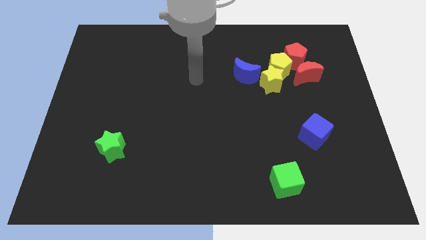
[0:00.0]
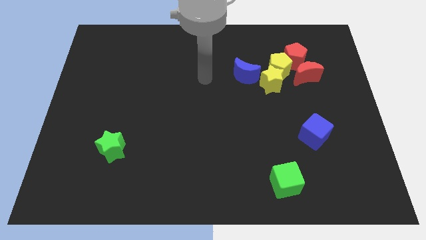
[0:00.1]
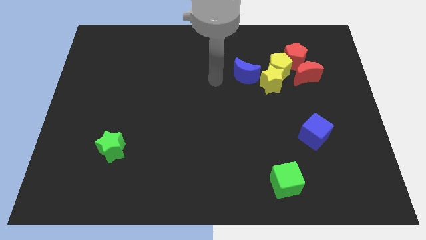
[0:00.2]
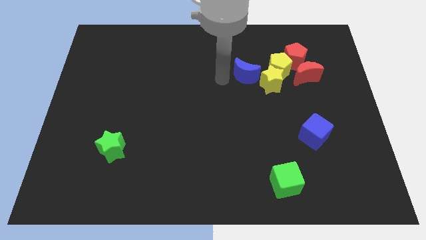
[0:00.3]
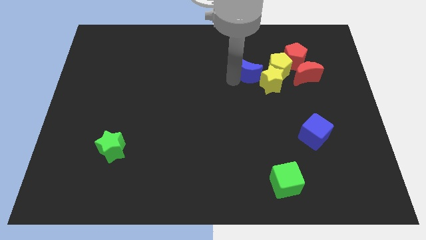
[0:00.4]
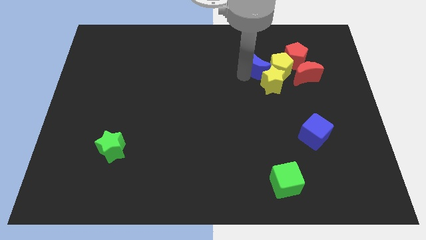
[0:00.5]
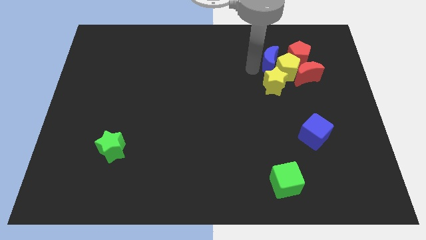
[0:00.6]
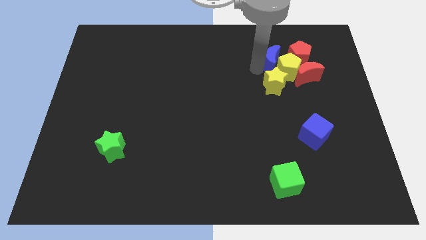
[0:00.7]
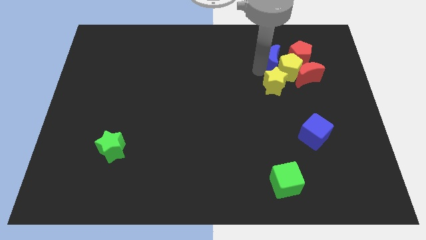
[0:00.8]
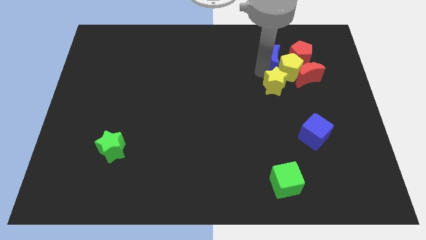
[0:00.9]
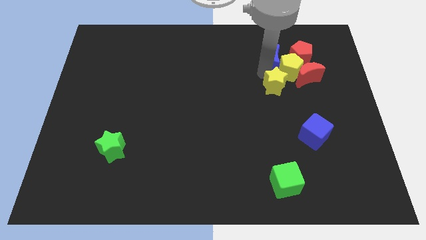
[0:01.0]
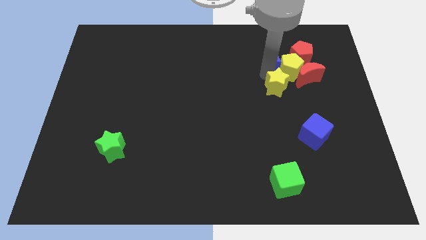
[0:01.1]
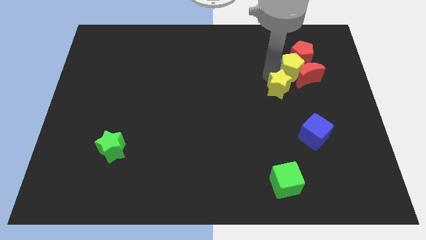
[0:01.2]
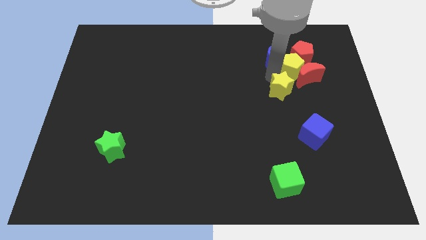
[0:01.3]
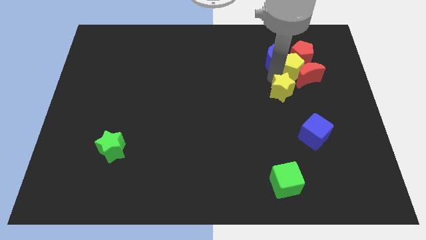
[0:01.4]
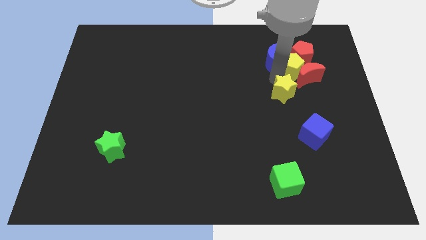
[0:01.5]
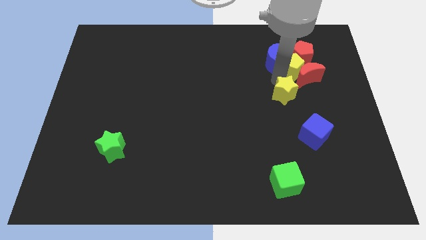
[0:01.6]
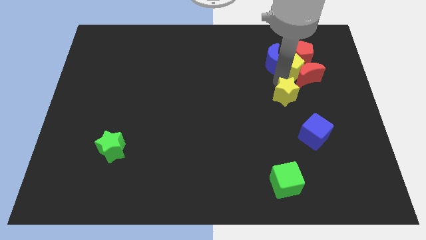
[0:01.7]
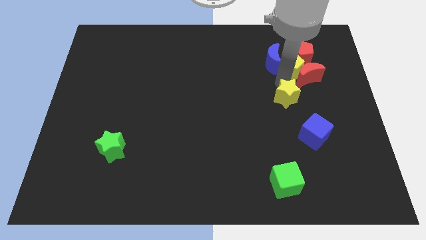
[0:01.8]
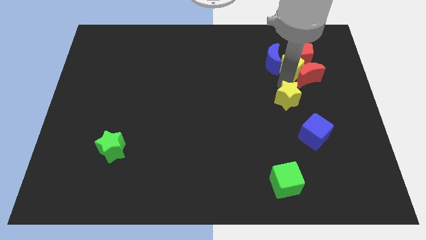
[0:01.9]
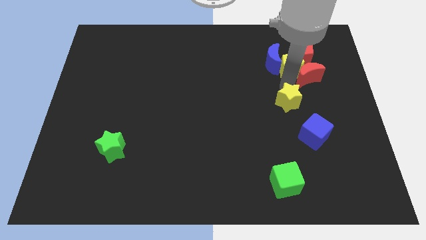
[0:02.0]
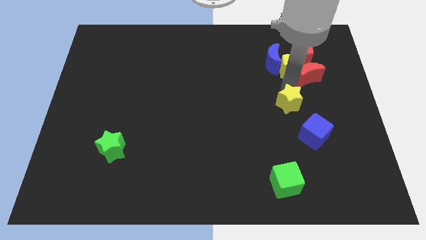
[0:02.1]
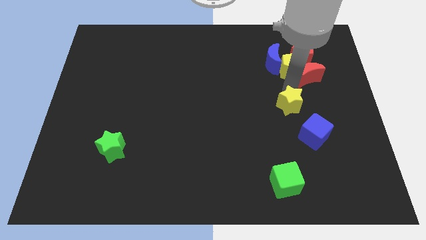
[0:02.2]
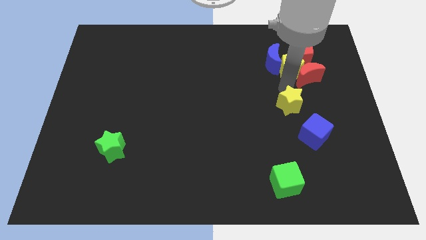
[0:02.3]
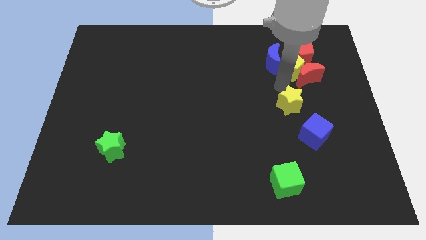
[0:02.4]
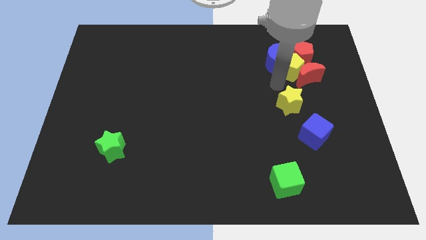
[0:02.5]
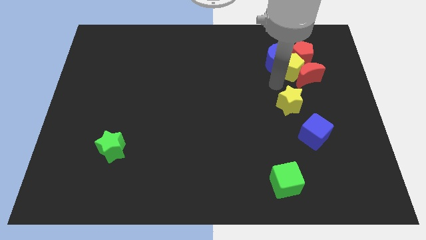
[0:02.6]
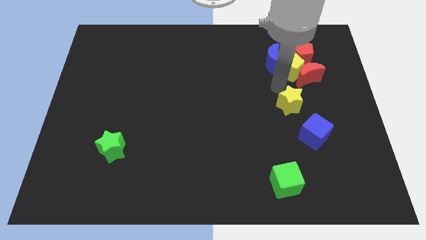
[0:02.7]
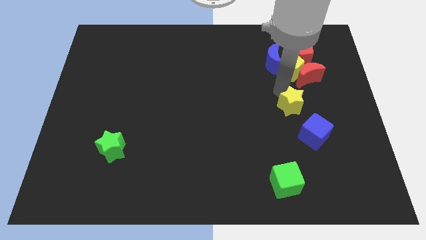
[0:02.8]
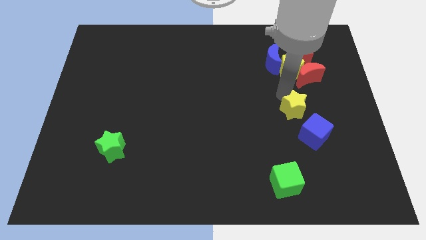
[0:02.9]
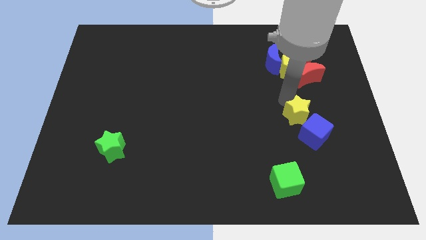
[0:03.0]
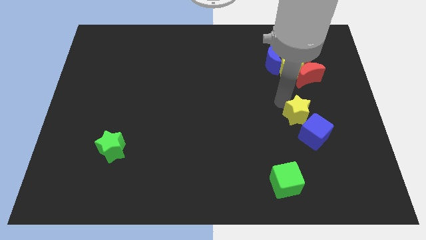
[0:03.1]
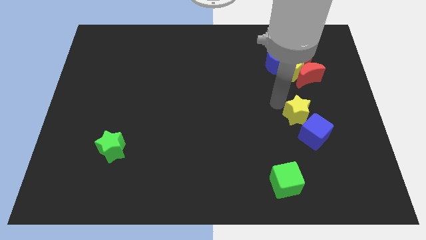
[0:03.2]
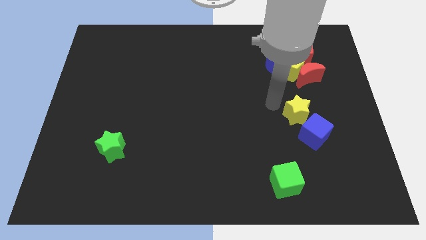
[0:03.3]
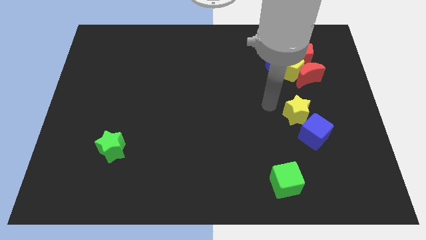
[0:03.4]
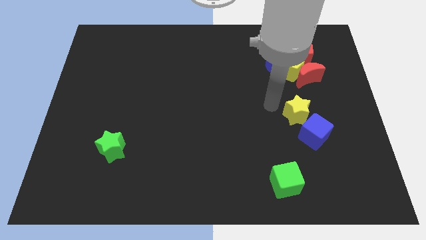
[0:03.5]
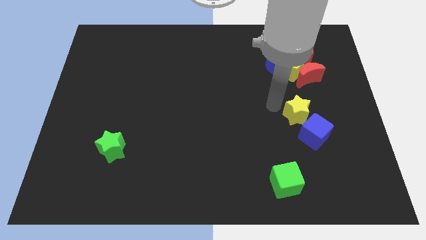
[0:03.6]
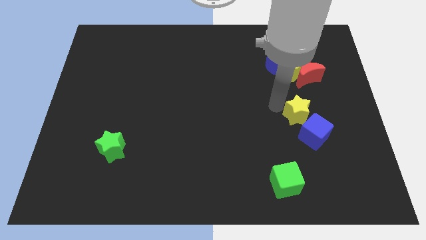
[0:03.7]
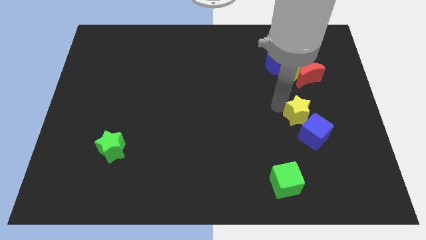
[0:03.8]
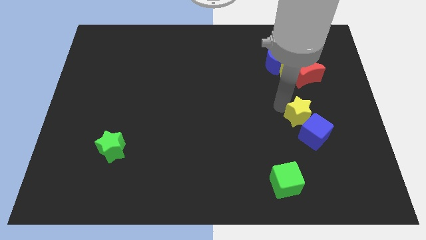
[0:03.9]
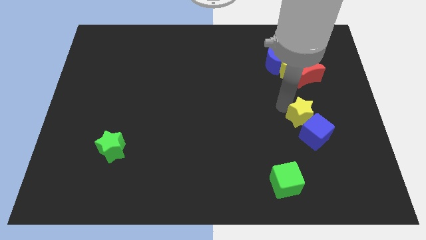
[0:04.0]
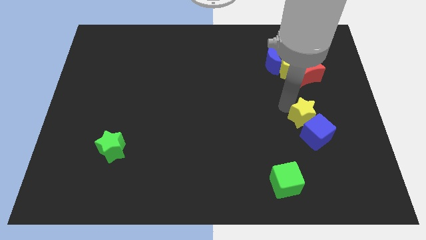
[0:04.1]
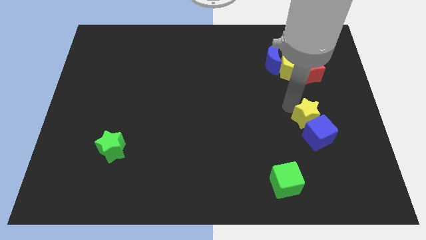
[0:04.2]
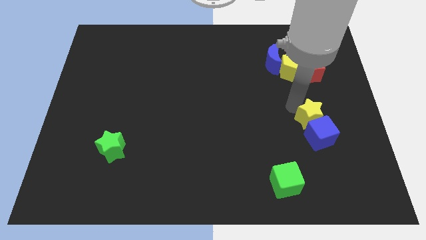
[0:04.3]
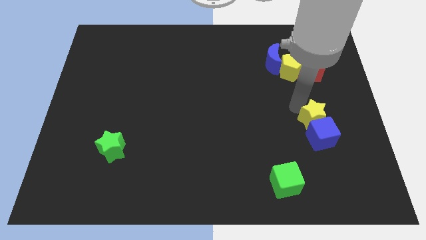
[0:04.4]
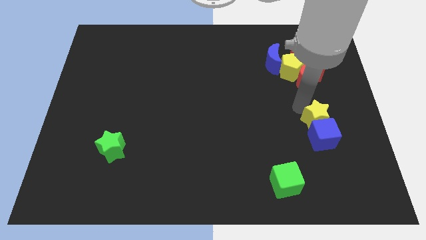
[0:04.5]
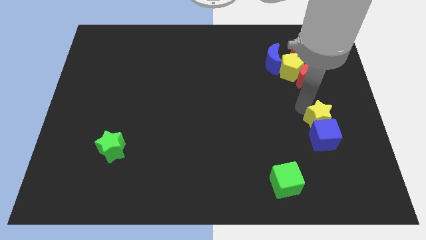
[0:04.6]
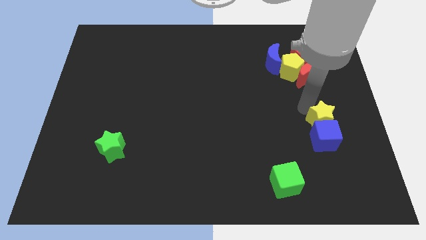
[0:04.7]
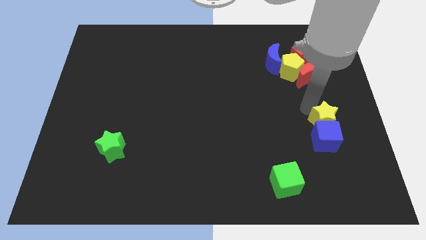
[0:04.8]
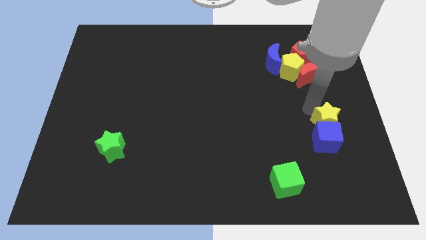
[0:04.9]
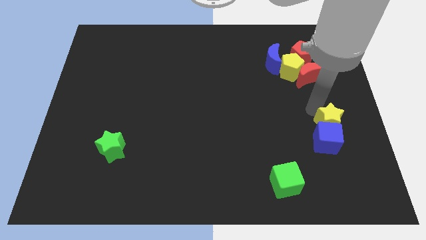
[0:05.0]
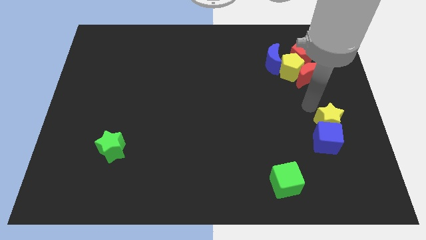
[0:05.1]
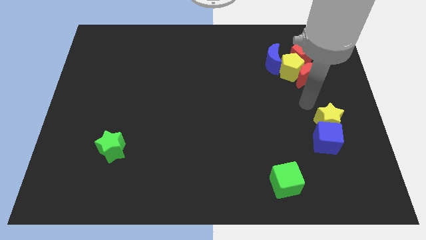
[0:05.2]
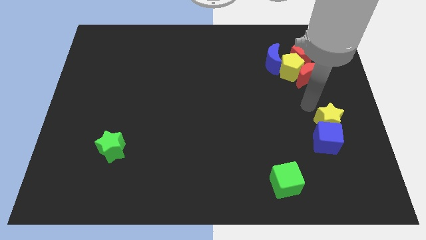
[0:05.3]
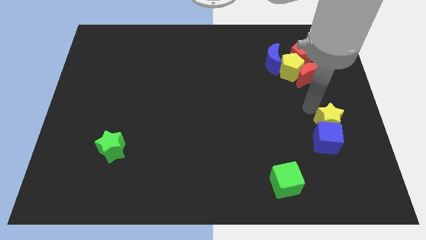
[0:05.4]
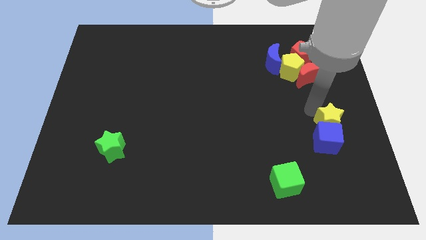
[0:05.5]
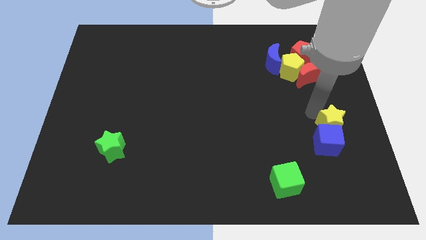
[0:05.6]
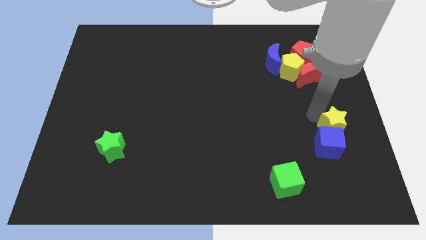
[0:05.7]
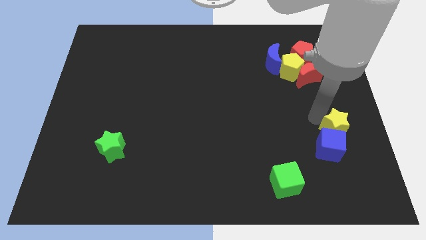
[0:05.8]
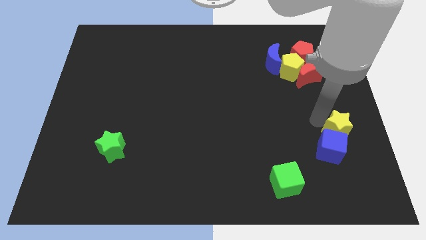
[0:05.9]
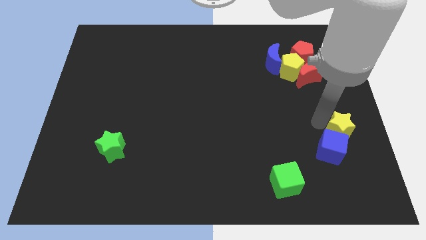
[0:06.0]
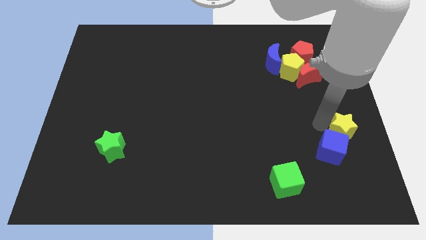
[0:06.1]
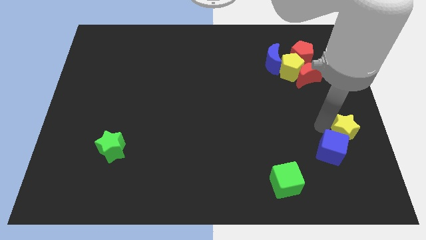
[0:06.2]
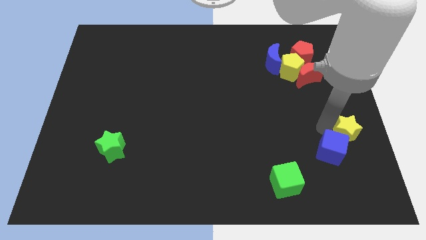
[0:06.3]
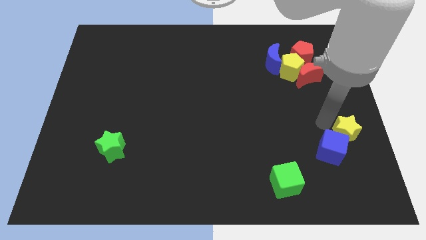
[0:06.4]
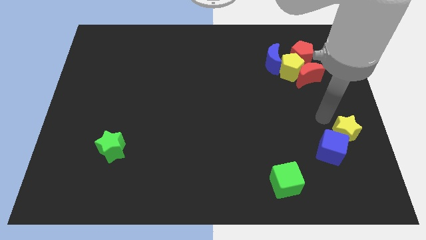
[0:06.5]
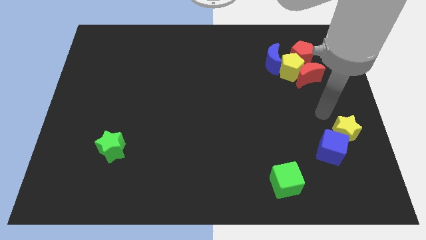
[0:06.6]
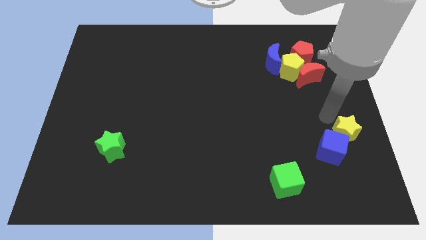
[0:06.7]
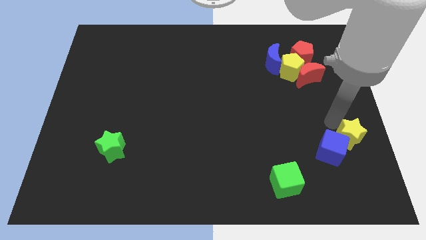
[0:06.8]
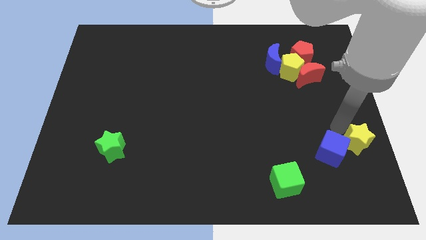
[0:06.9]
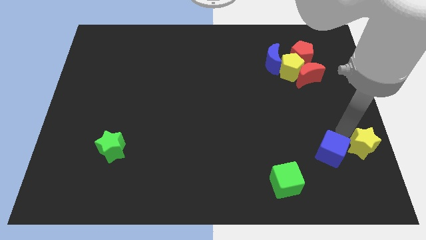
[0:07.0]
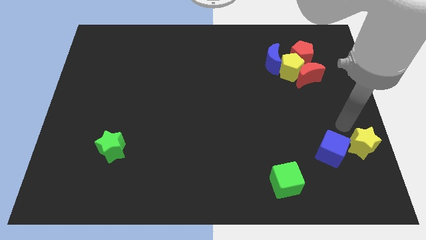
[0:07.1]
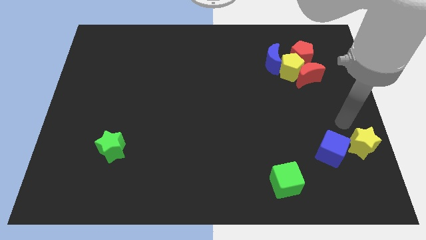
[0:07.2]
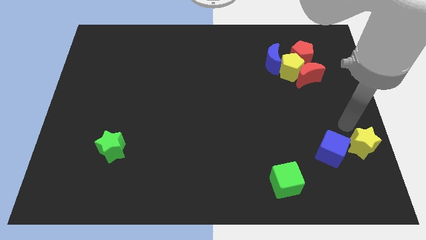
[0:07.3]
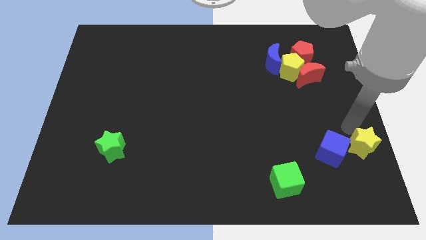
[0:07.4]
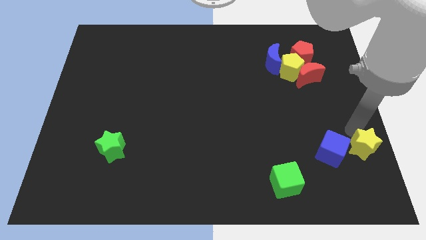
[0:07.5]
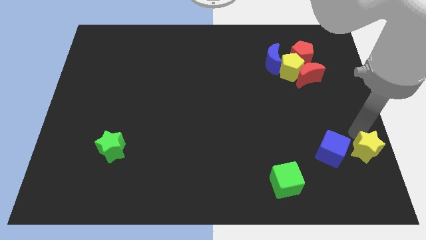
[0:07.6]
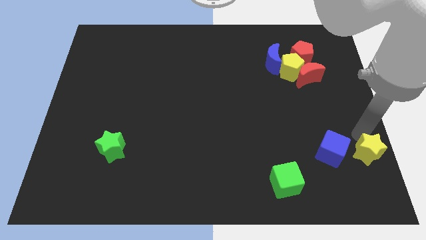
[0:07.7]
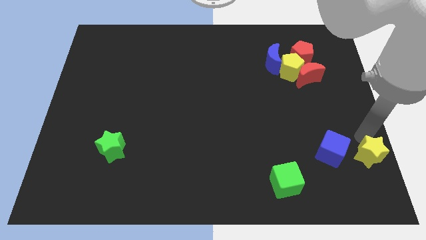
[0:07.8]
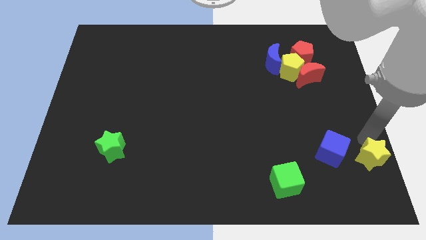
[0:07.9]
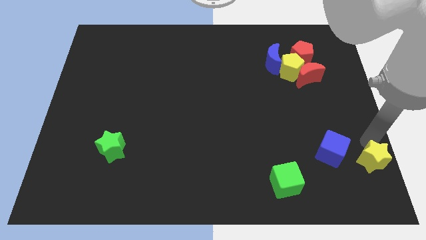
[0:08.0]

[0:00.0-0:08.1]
move the yellow star to the bottom right of the board
